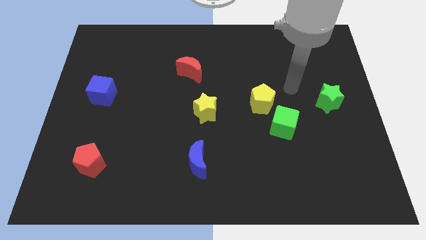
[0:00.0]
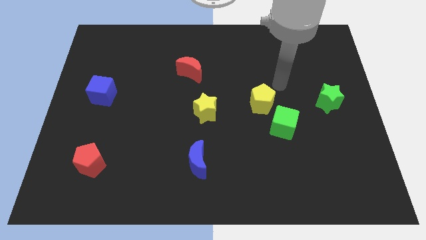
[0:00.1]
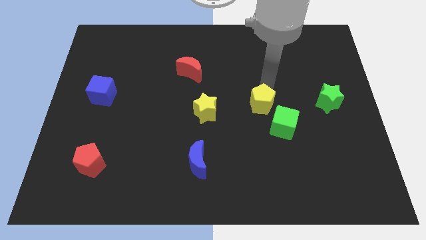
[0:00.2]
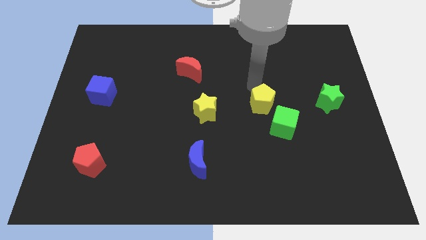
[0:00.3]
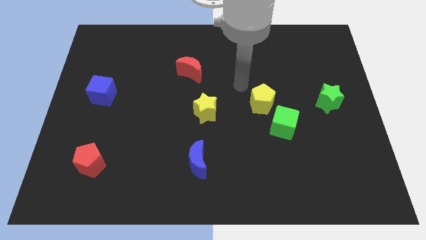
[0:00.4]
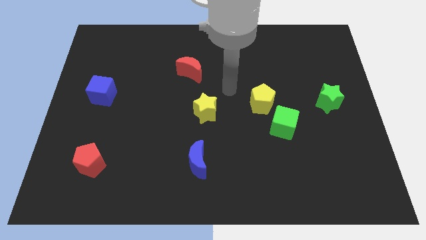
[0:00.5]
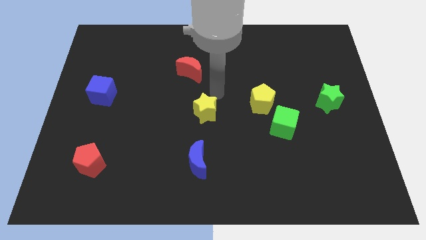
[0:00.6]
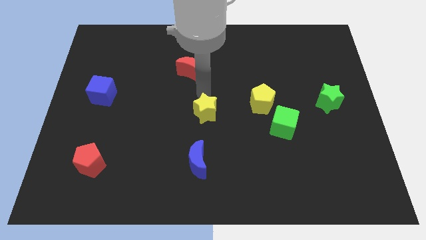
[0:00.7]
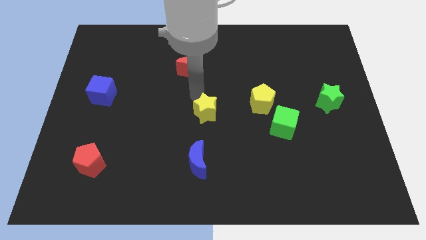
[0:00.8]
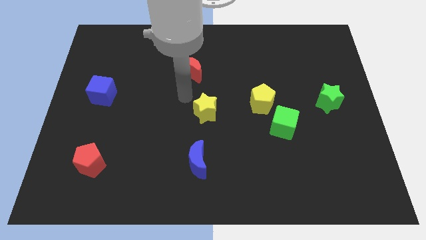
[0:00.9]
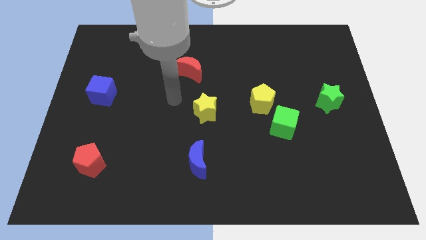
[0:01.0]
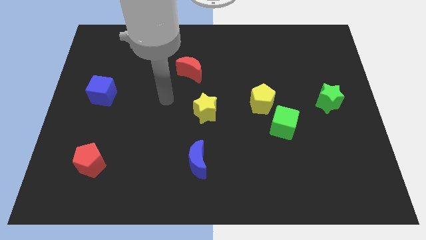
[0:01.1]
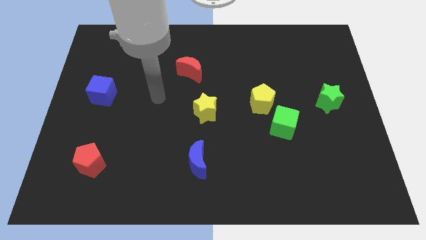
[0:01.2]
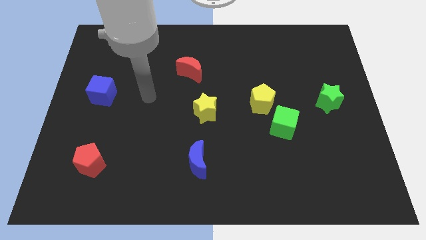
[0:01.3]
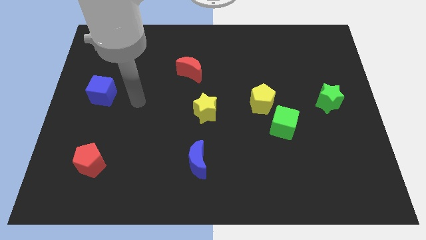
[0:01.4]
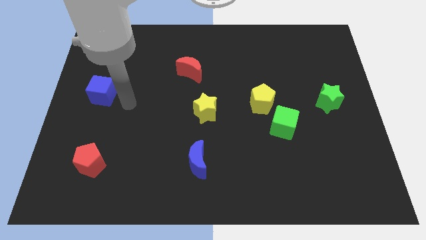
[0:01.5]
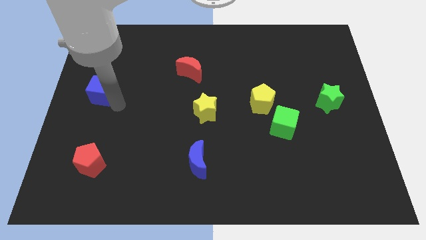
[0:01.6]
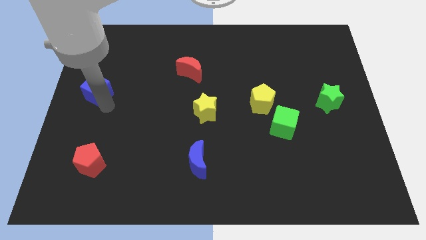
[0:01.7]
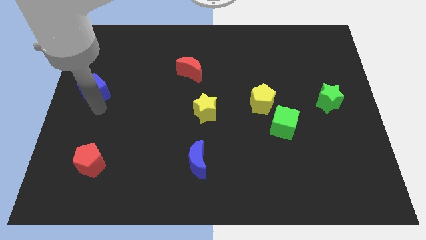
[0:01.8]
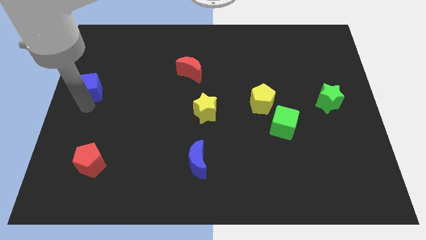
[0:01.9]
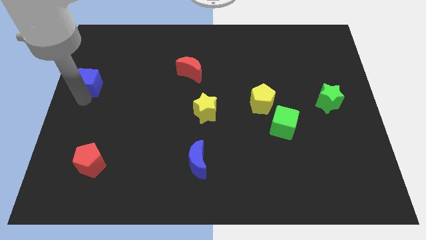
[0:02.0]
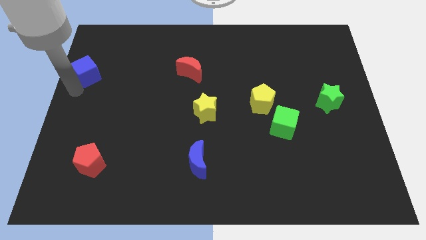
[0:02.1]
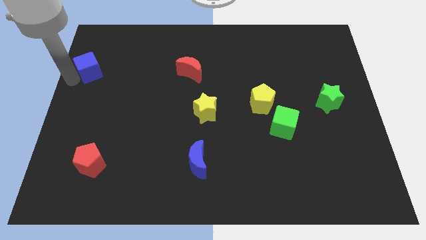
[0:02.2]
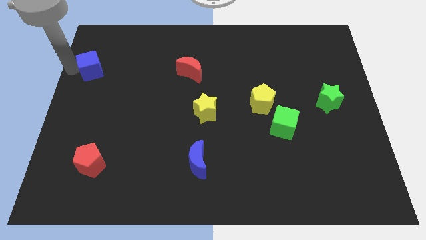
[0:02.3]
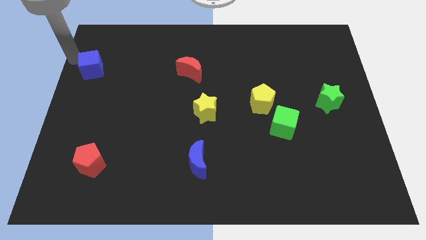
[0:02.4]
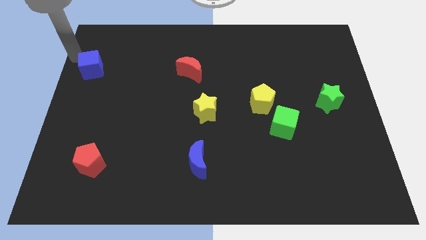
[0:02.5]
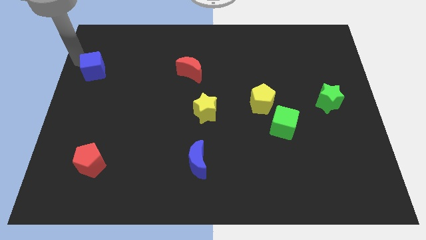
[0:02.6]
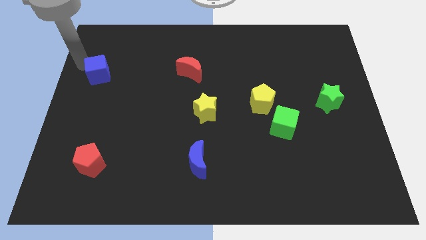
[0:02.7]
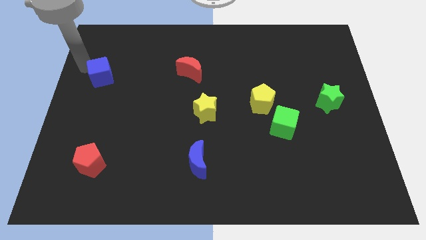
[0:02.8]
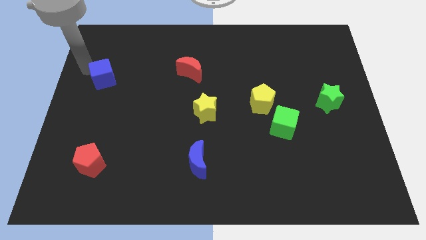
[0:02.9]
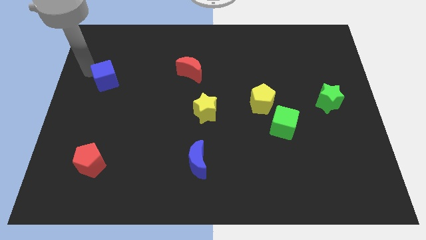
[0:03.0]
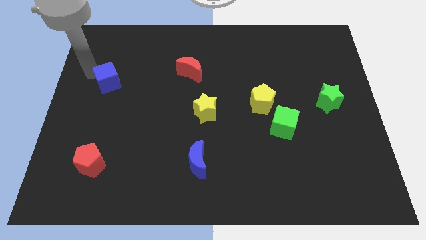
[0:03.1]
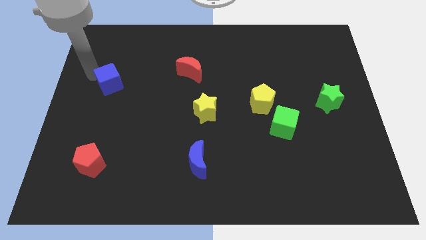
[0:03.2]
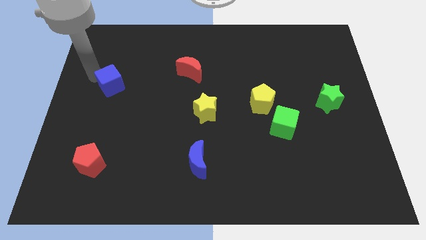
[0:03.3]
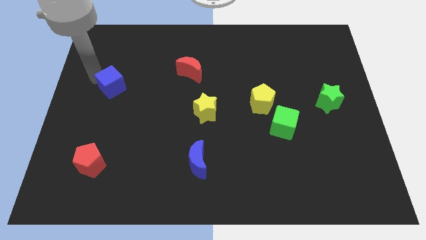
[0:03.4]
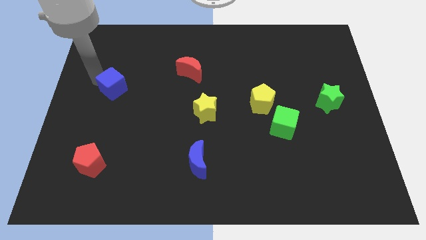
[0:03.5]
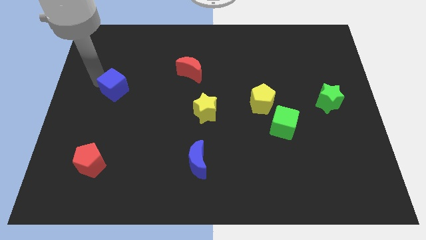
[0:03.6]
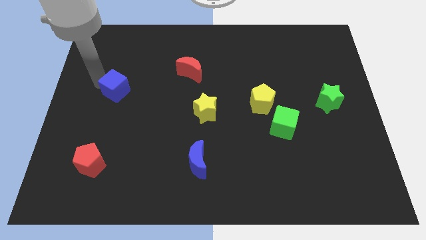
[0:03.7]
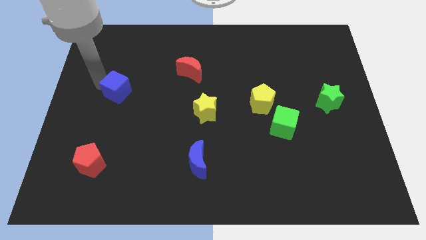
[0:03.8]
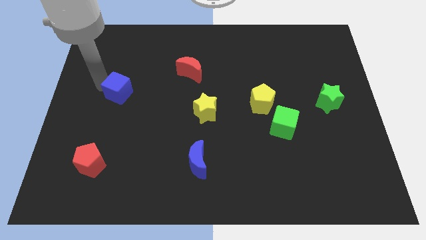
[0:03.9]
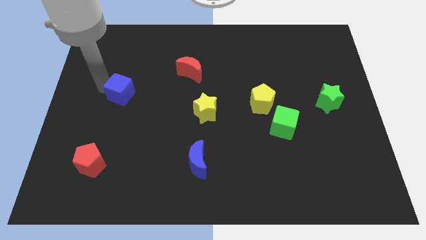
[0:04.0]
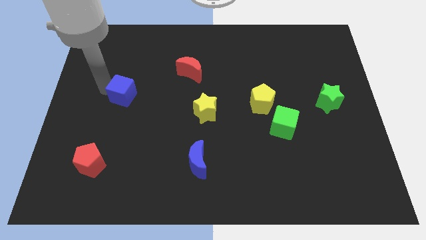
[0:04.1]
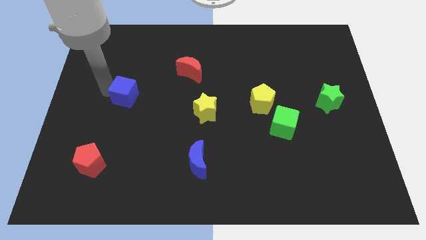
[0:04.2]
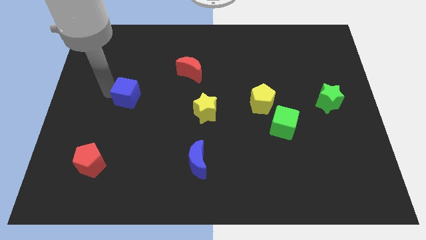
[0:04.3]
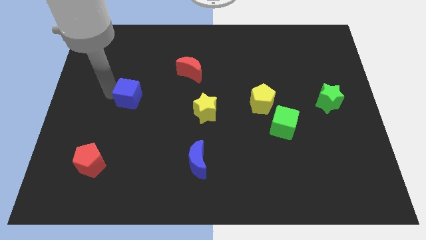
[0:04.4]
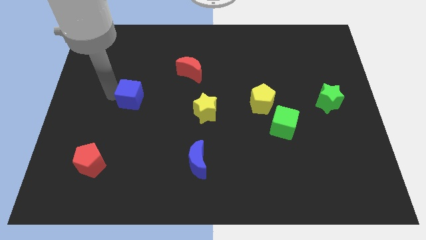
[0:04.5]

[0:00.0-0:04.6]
slide the blue cube right a little

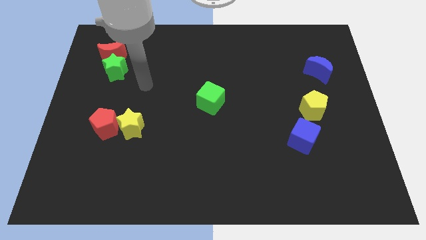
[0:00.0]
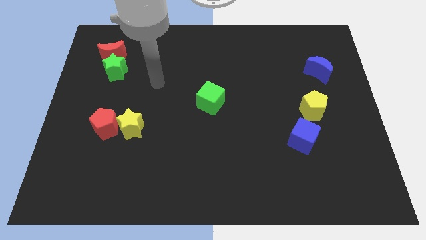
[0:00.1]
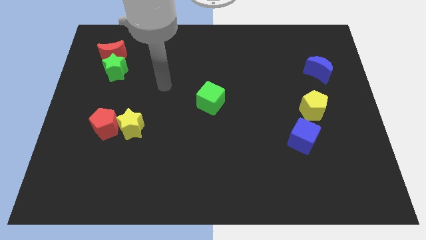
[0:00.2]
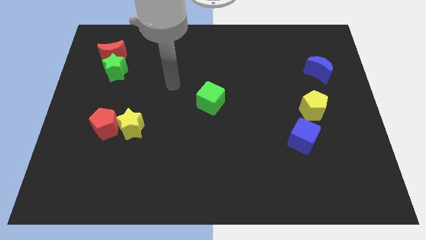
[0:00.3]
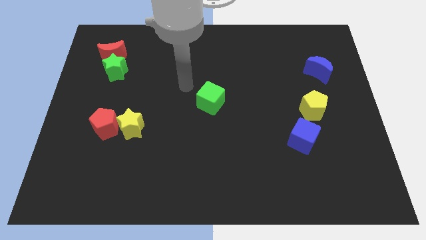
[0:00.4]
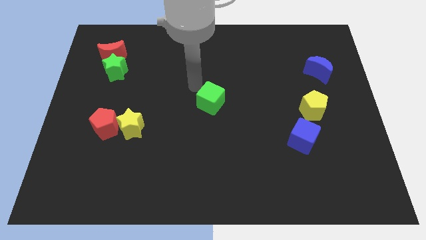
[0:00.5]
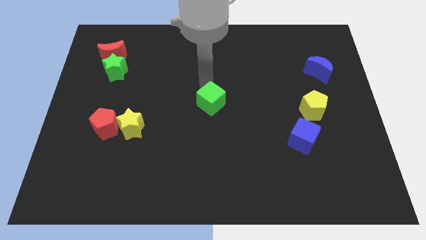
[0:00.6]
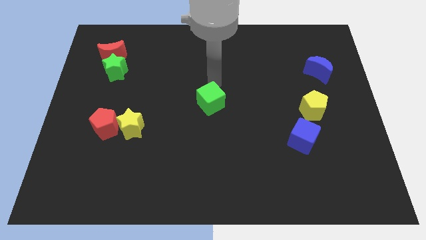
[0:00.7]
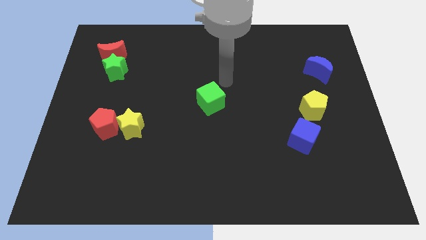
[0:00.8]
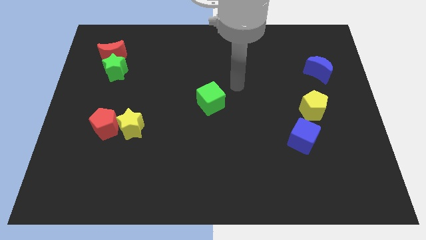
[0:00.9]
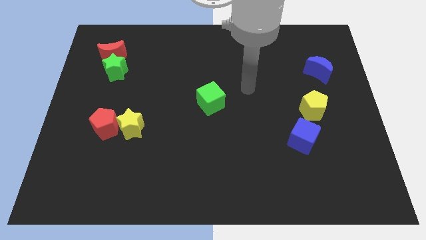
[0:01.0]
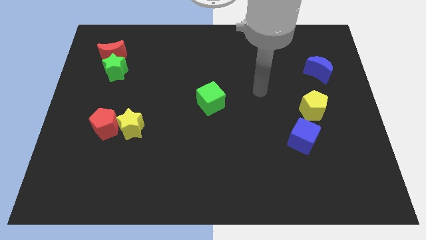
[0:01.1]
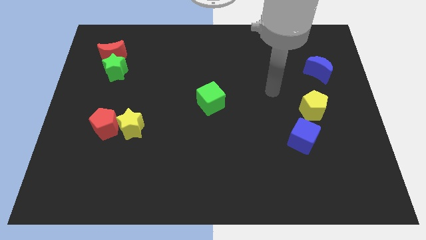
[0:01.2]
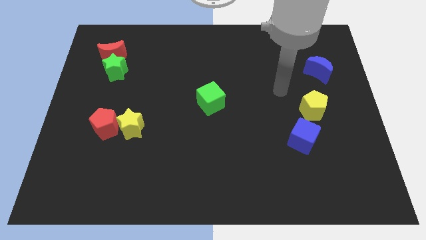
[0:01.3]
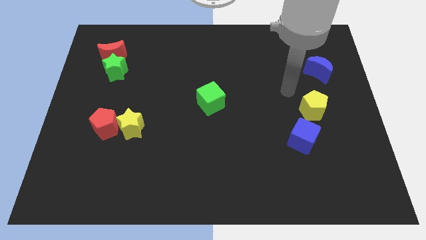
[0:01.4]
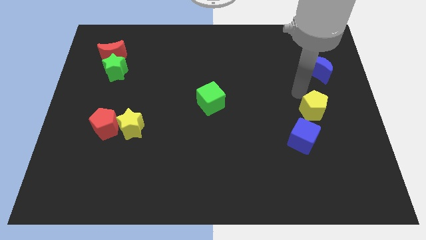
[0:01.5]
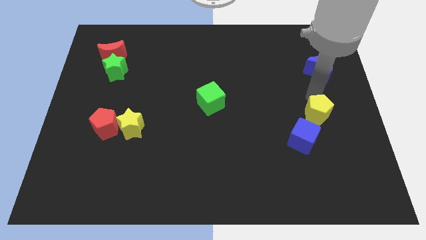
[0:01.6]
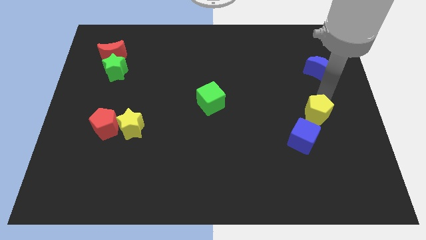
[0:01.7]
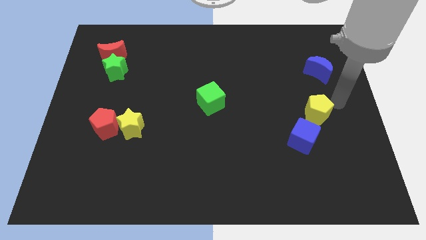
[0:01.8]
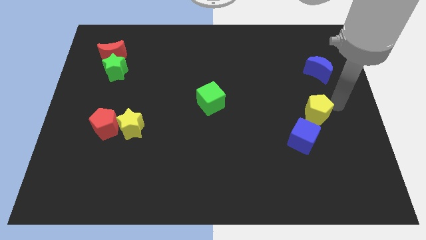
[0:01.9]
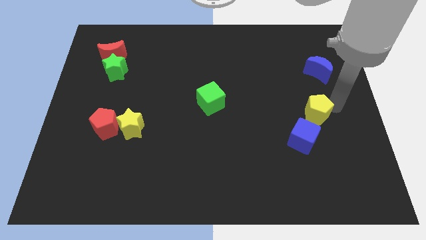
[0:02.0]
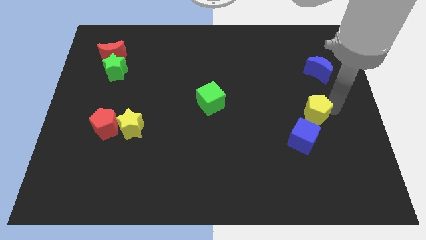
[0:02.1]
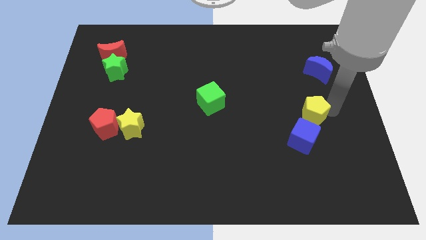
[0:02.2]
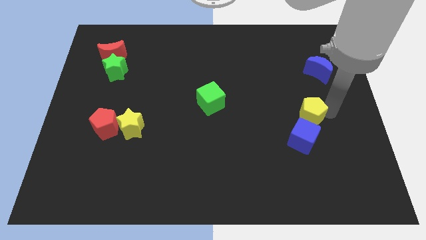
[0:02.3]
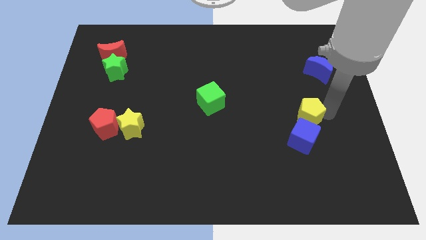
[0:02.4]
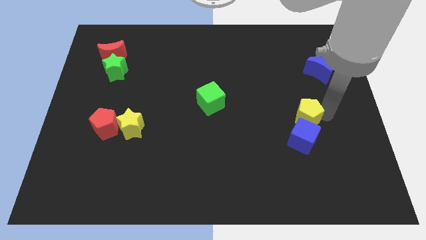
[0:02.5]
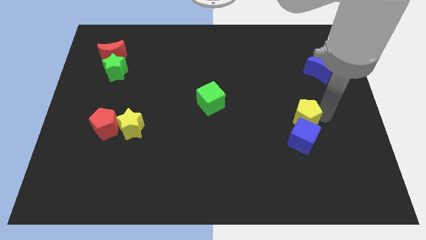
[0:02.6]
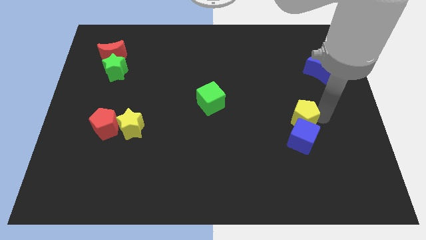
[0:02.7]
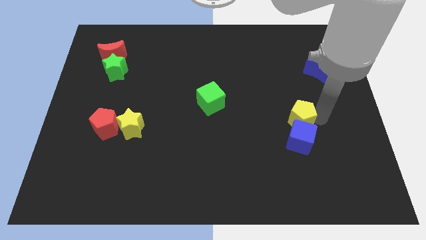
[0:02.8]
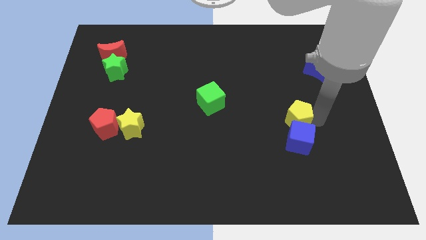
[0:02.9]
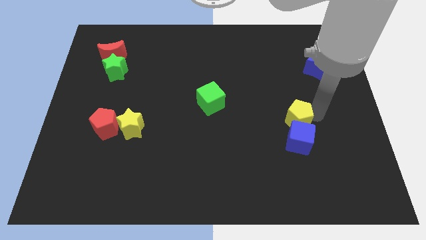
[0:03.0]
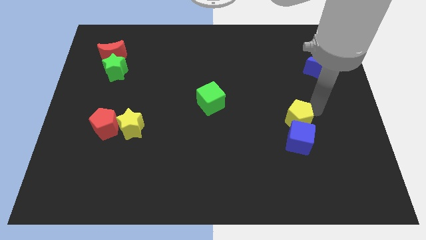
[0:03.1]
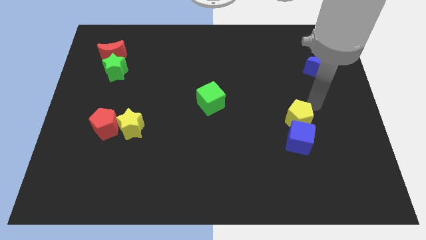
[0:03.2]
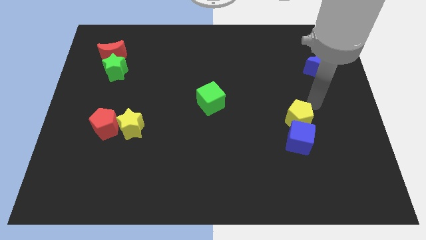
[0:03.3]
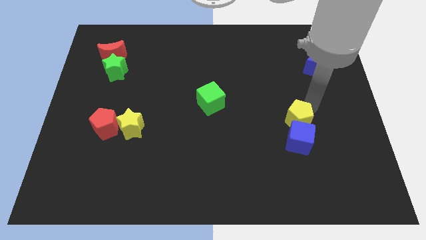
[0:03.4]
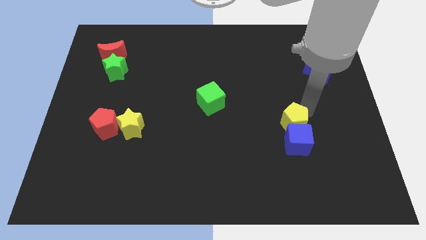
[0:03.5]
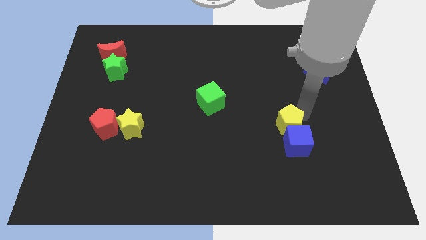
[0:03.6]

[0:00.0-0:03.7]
push the yellow pentagon a little bit down and to the left
